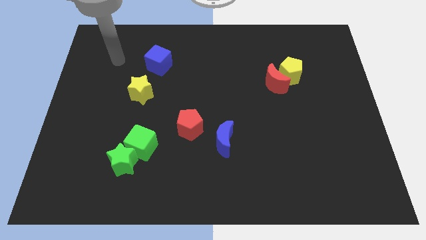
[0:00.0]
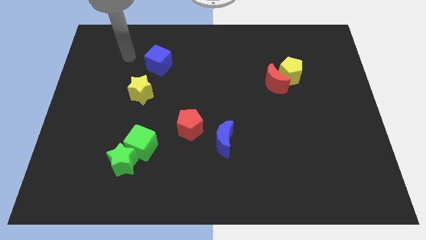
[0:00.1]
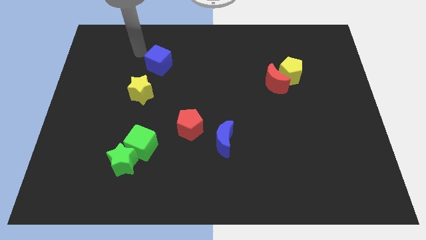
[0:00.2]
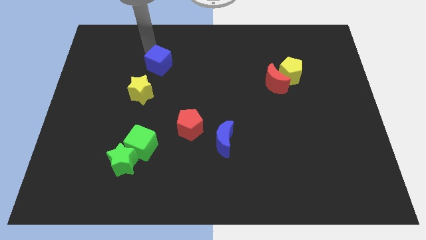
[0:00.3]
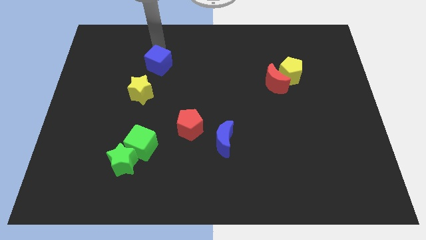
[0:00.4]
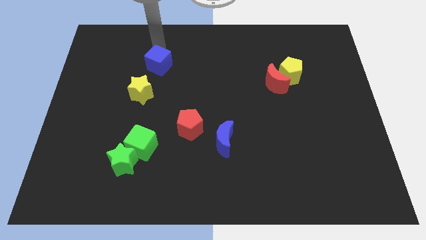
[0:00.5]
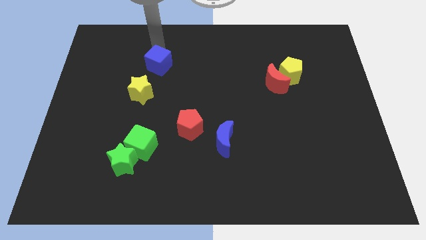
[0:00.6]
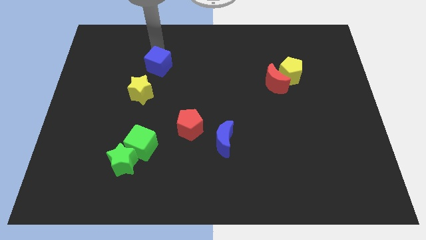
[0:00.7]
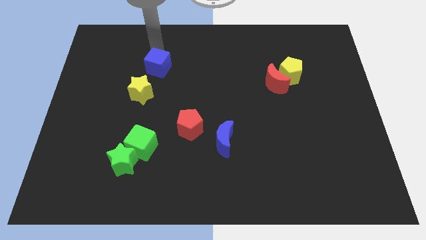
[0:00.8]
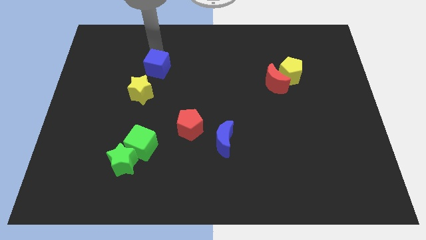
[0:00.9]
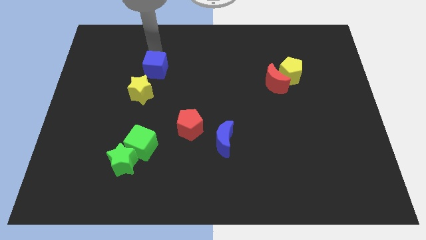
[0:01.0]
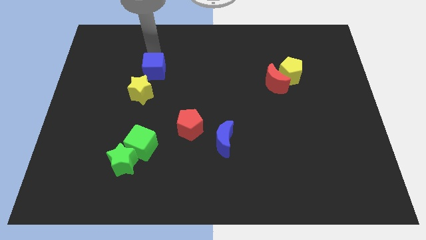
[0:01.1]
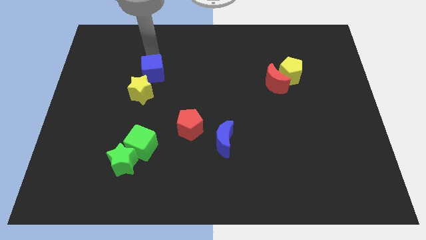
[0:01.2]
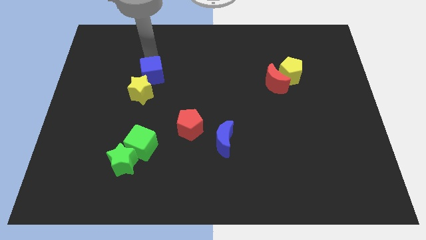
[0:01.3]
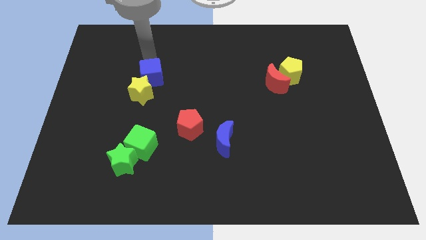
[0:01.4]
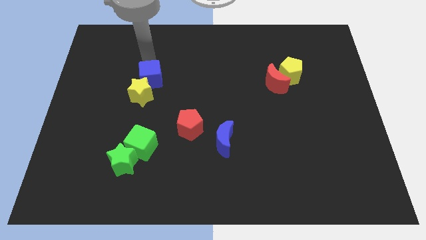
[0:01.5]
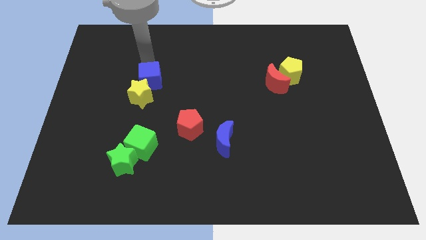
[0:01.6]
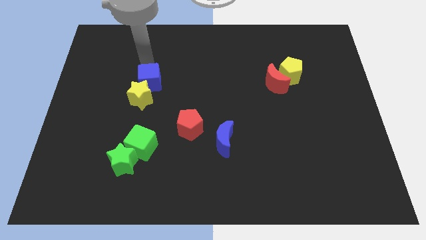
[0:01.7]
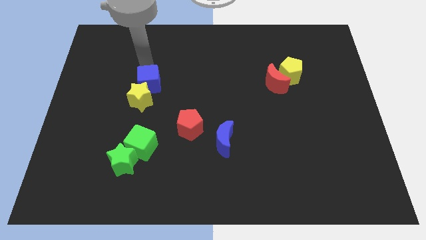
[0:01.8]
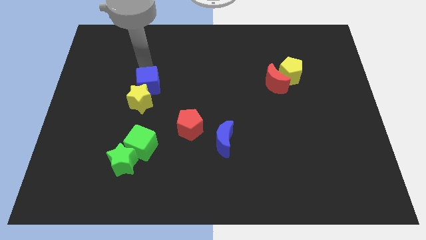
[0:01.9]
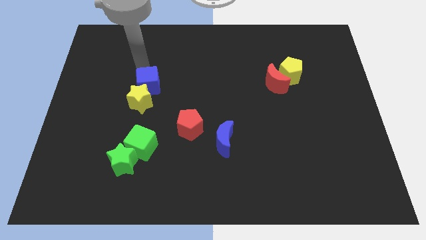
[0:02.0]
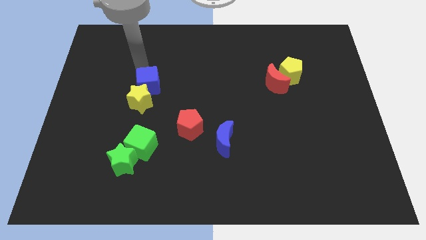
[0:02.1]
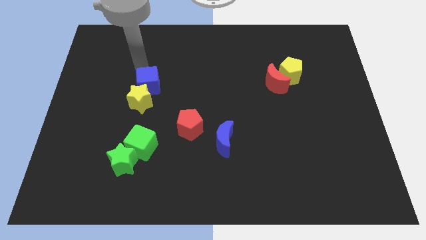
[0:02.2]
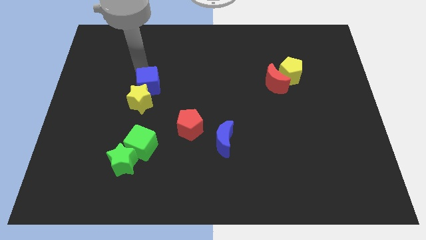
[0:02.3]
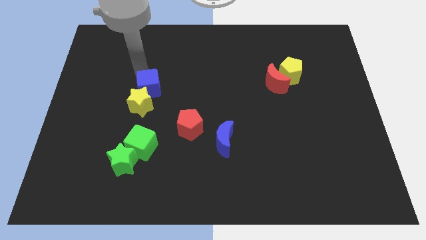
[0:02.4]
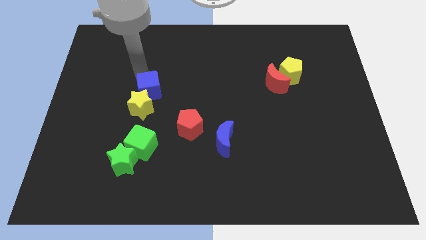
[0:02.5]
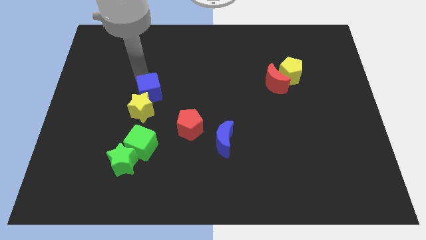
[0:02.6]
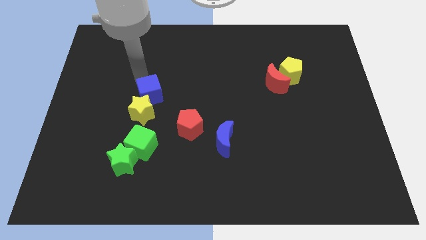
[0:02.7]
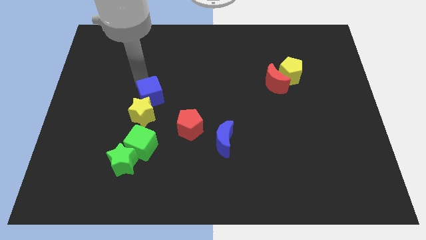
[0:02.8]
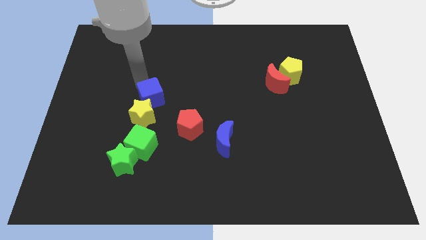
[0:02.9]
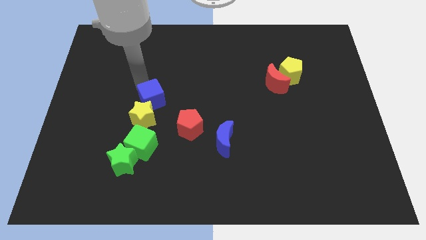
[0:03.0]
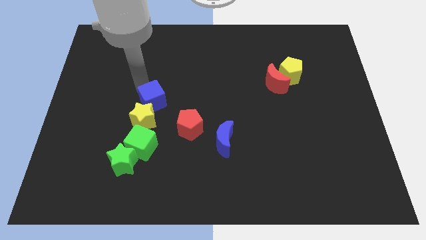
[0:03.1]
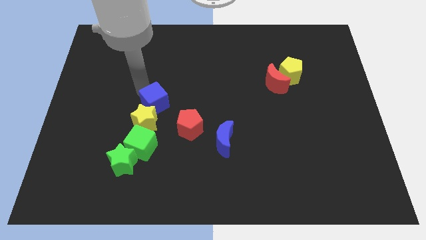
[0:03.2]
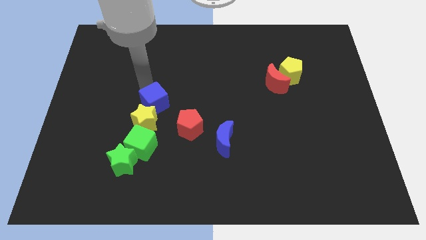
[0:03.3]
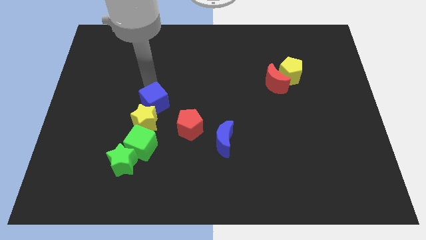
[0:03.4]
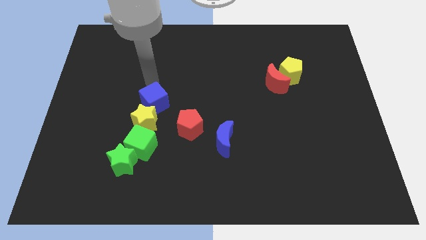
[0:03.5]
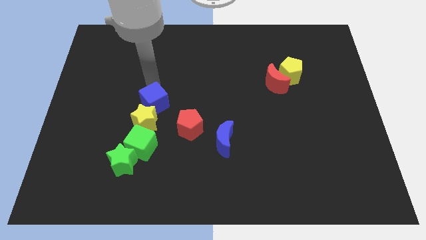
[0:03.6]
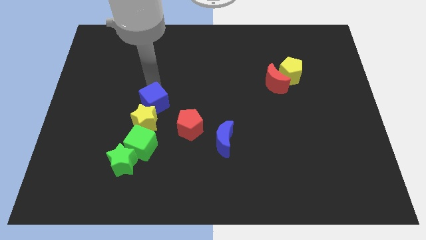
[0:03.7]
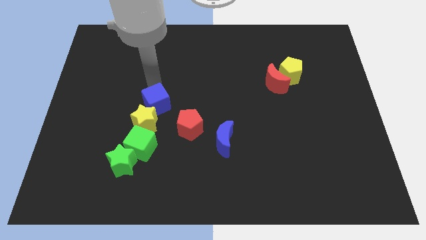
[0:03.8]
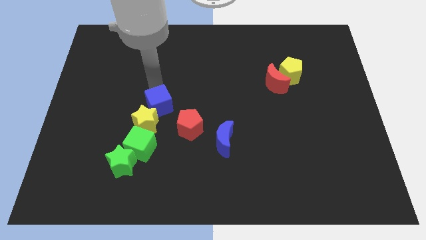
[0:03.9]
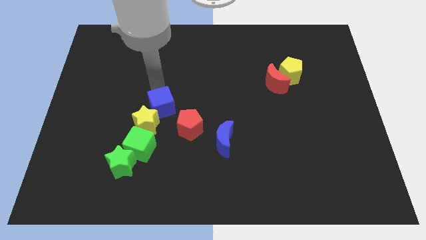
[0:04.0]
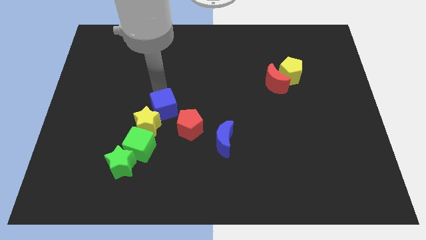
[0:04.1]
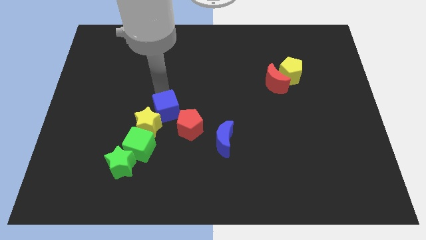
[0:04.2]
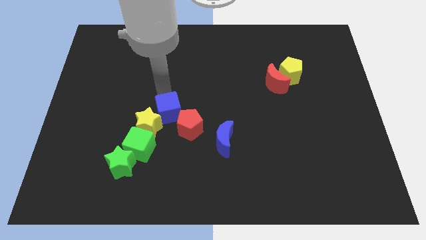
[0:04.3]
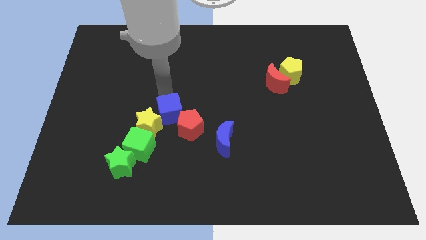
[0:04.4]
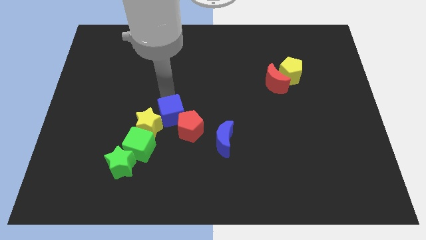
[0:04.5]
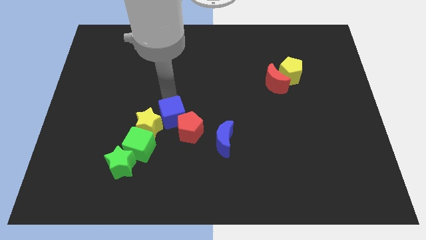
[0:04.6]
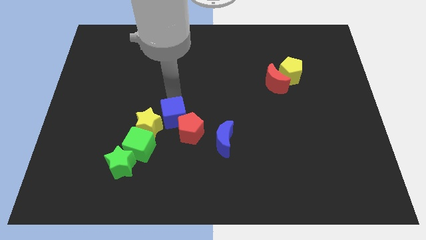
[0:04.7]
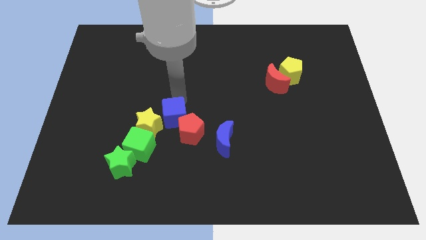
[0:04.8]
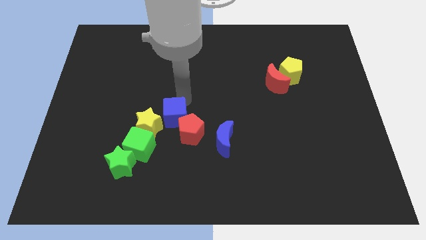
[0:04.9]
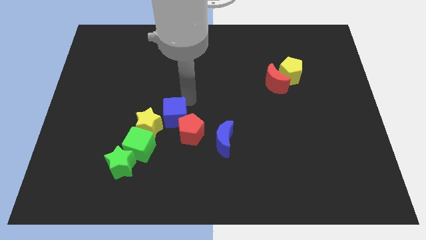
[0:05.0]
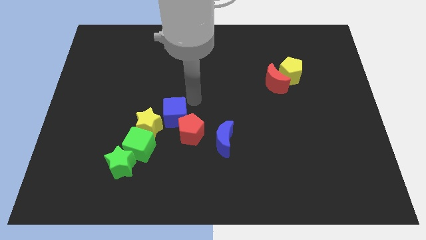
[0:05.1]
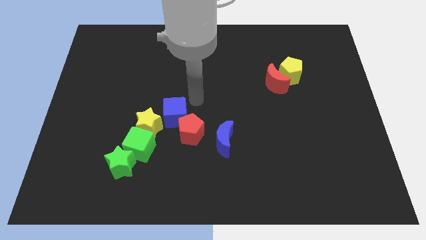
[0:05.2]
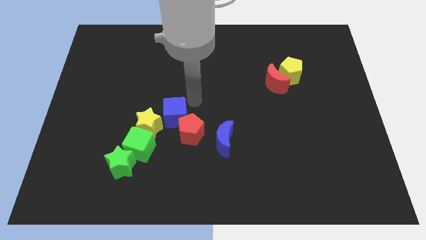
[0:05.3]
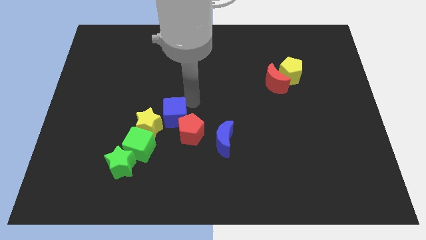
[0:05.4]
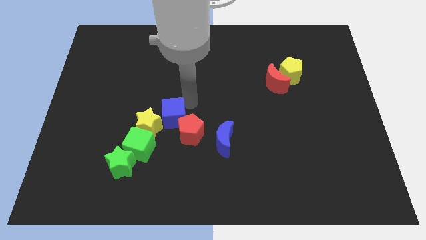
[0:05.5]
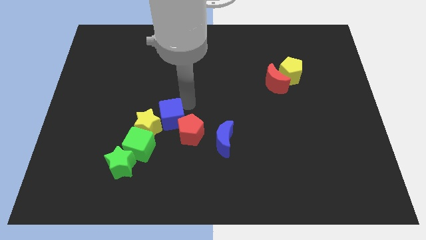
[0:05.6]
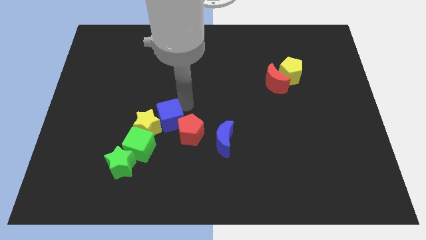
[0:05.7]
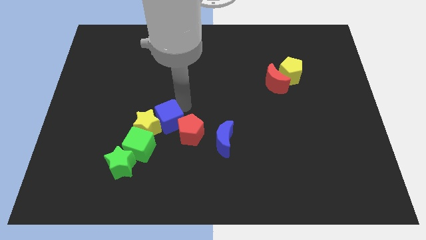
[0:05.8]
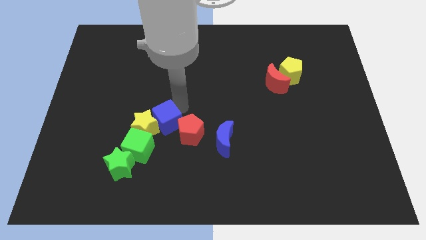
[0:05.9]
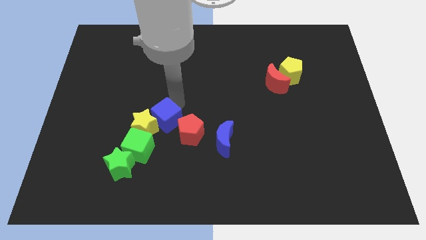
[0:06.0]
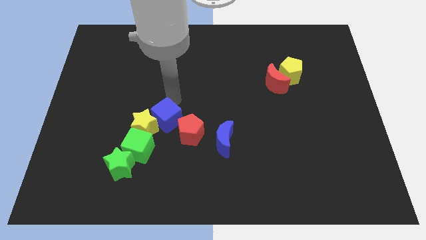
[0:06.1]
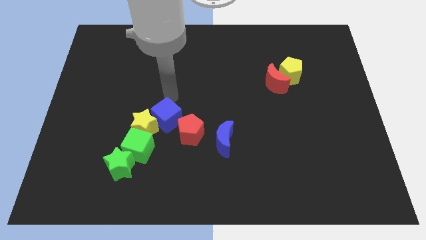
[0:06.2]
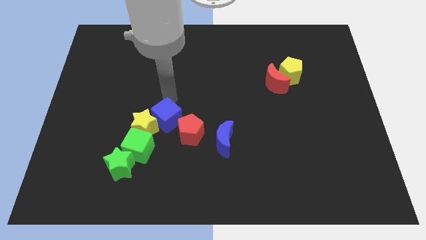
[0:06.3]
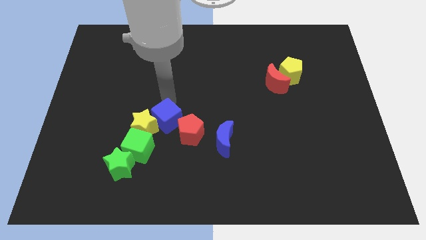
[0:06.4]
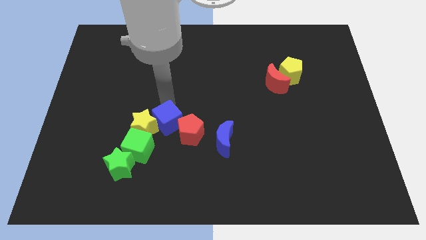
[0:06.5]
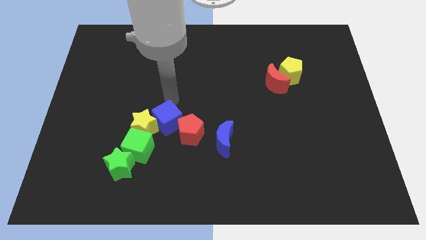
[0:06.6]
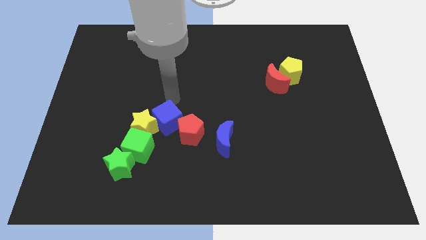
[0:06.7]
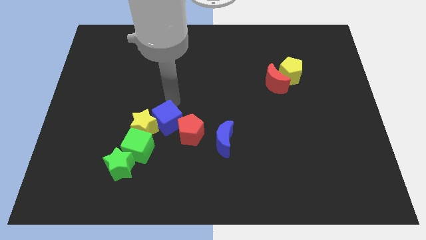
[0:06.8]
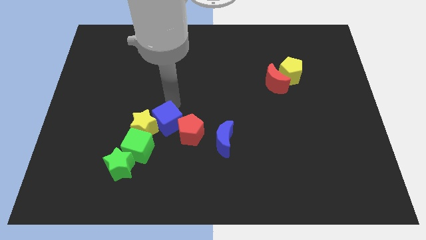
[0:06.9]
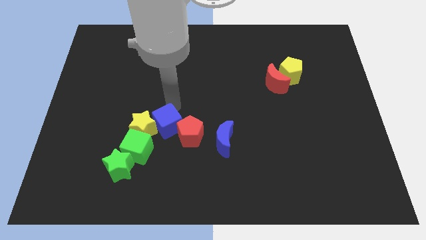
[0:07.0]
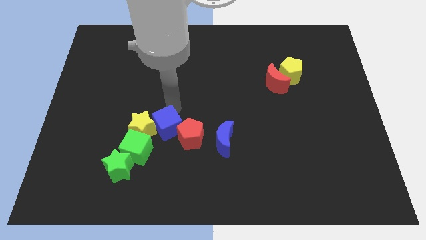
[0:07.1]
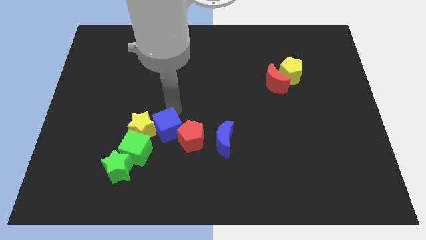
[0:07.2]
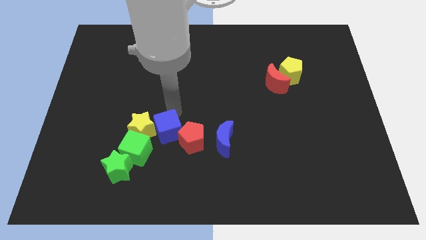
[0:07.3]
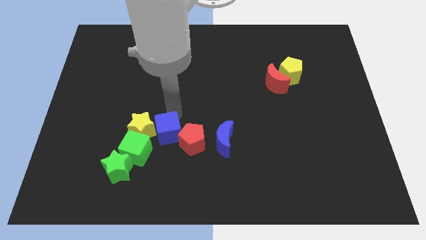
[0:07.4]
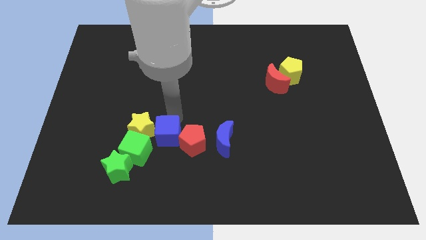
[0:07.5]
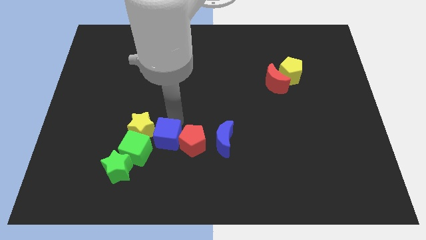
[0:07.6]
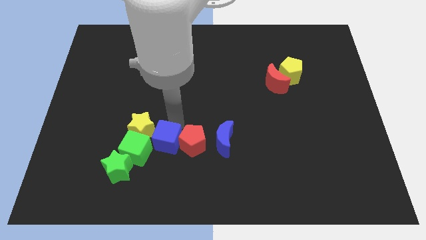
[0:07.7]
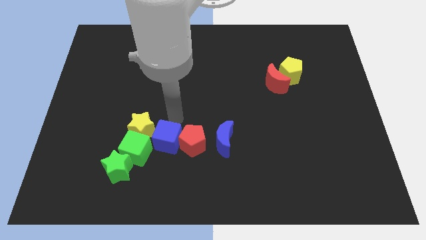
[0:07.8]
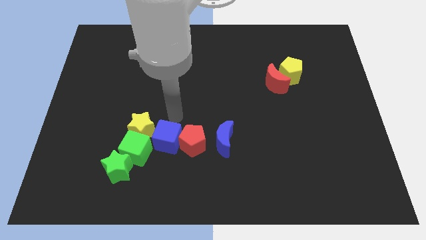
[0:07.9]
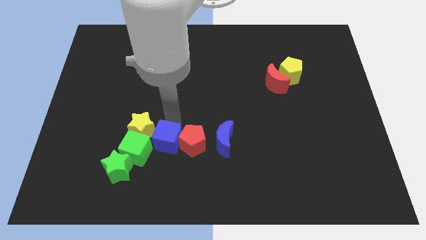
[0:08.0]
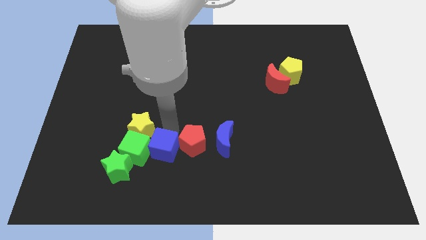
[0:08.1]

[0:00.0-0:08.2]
slide the blue cube to the bottom right of the green cube
